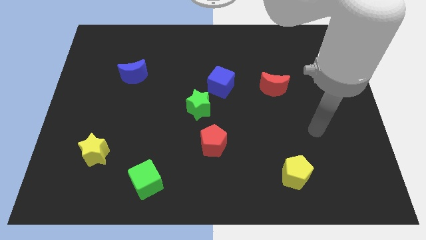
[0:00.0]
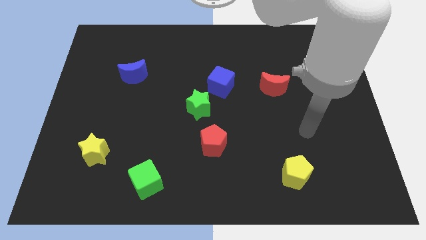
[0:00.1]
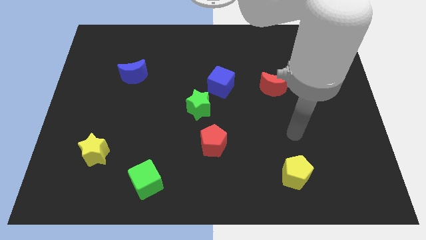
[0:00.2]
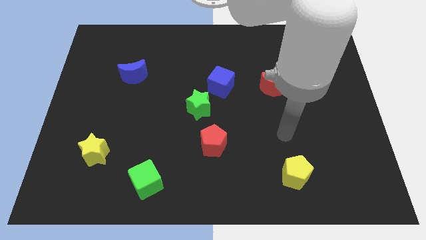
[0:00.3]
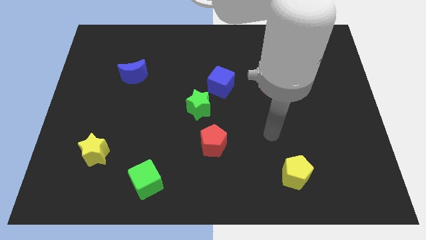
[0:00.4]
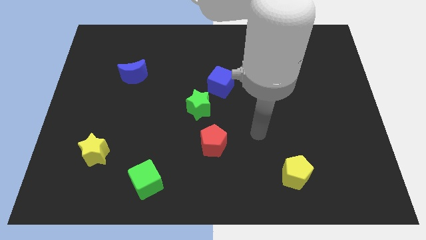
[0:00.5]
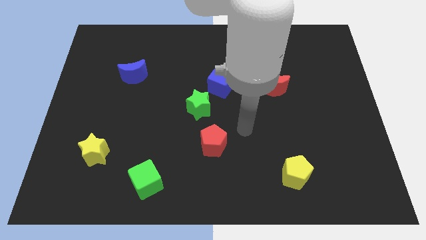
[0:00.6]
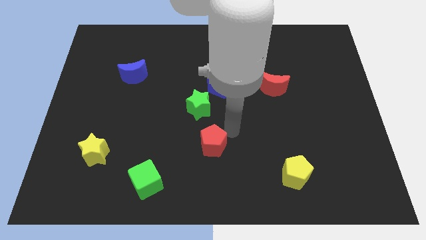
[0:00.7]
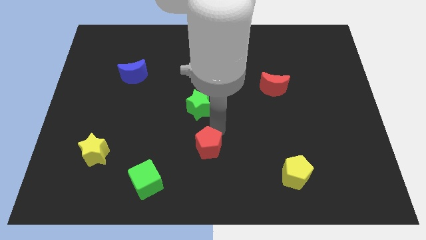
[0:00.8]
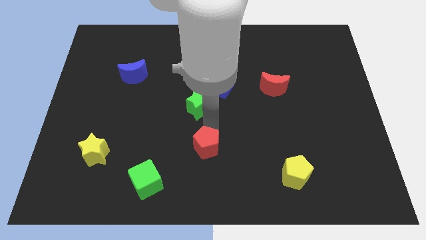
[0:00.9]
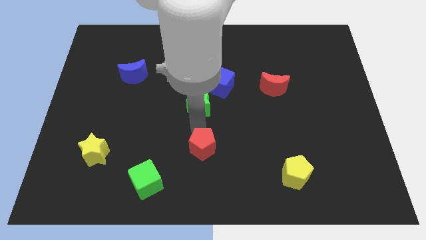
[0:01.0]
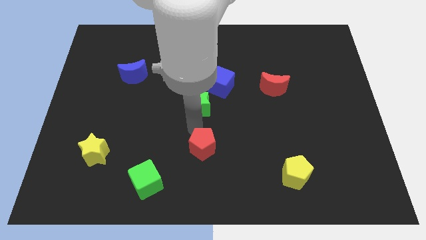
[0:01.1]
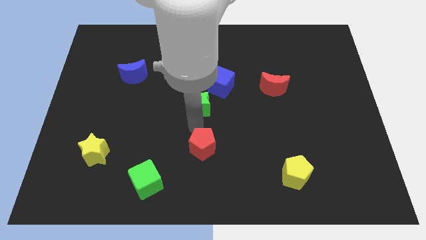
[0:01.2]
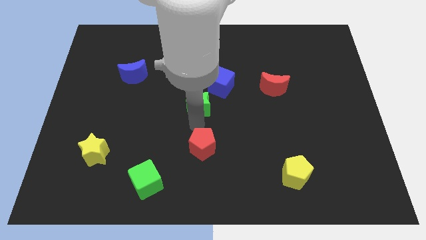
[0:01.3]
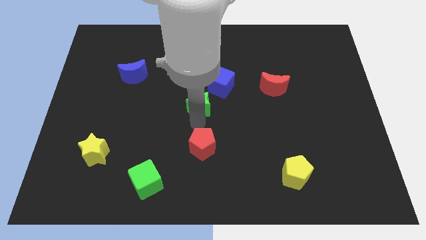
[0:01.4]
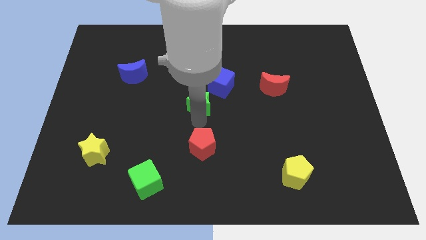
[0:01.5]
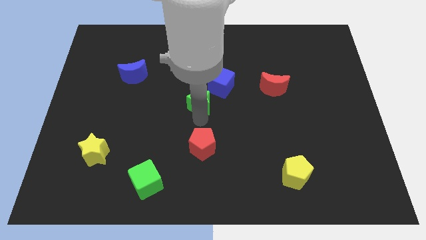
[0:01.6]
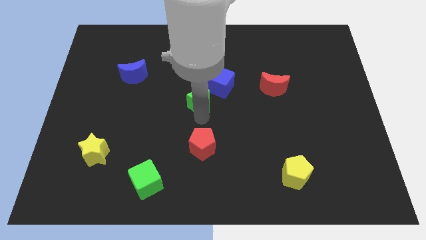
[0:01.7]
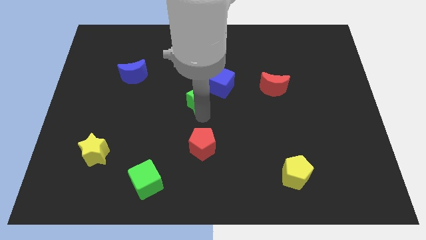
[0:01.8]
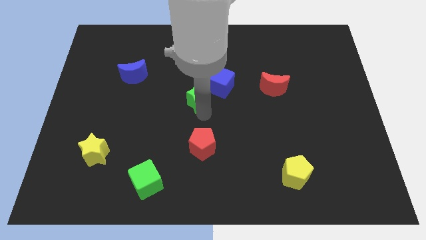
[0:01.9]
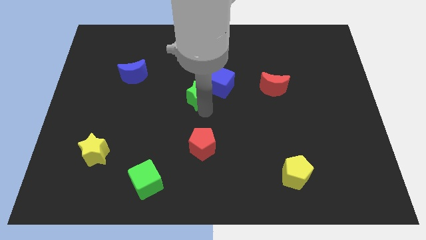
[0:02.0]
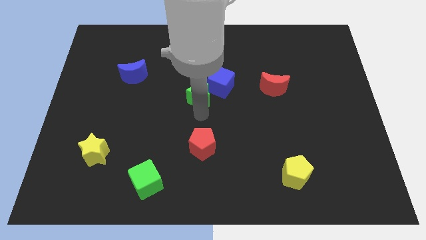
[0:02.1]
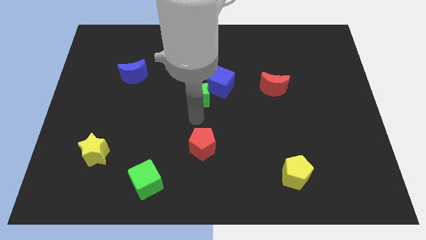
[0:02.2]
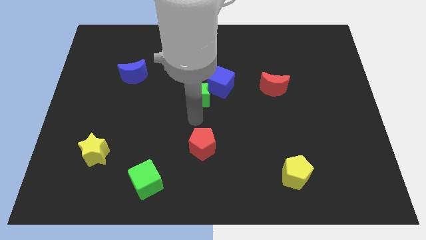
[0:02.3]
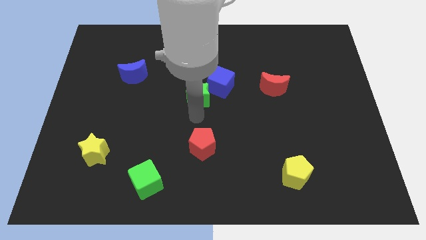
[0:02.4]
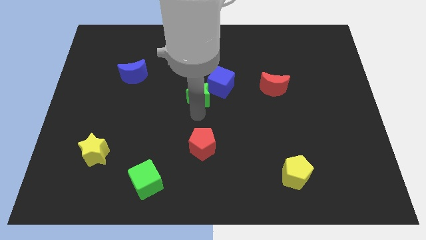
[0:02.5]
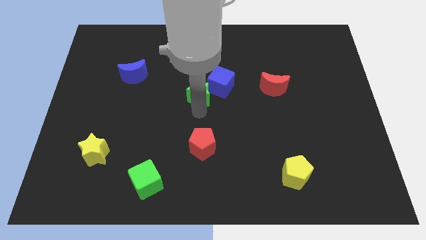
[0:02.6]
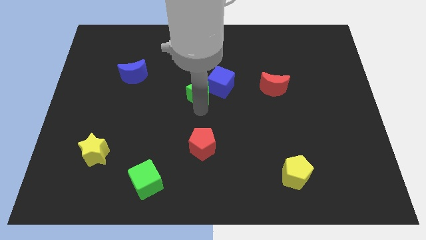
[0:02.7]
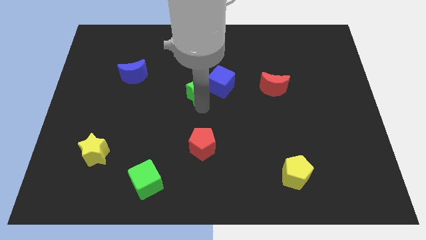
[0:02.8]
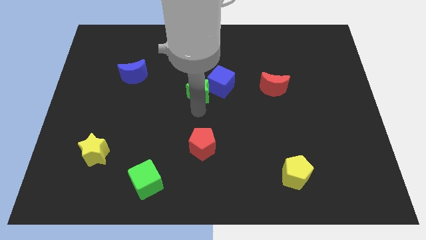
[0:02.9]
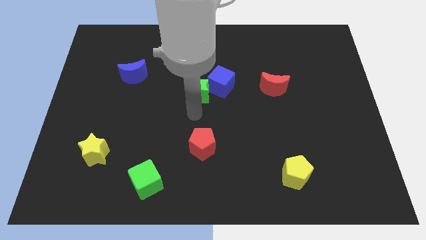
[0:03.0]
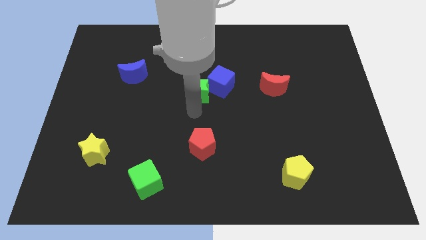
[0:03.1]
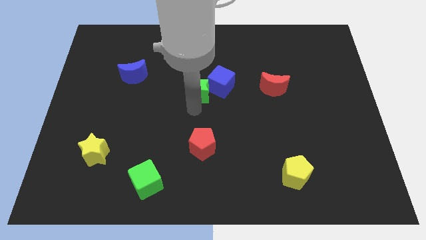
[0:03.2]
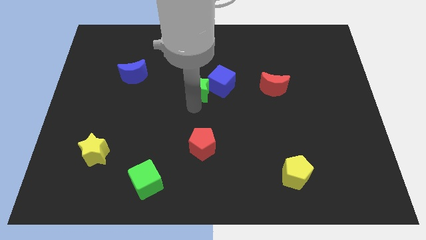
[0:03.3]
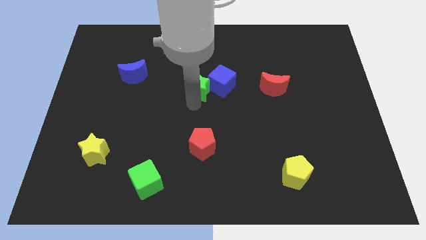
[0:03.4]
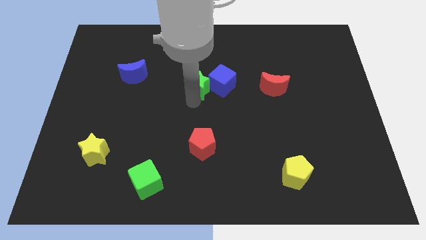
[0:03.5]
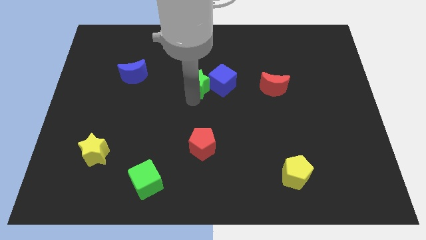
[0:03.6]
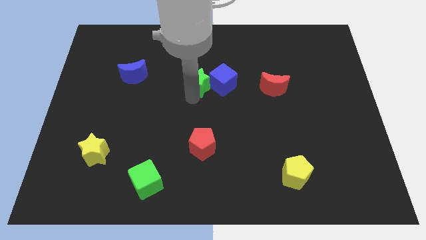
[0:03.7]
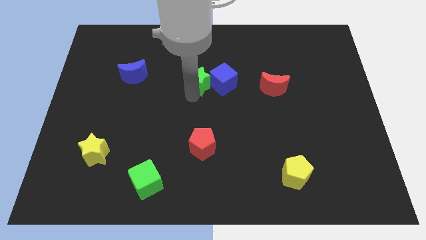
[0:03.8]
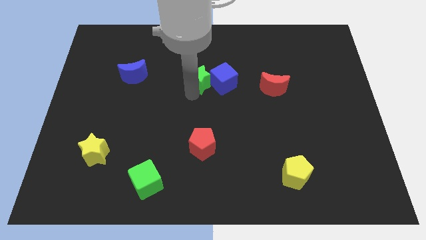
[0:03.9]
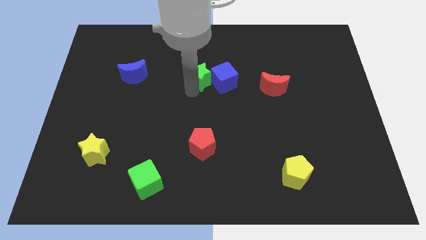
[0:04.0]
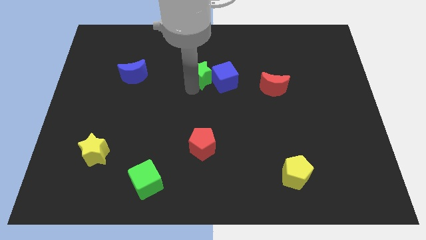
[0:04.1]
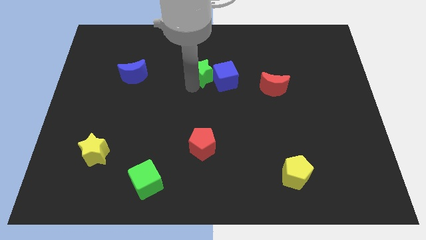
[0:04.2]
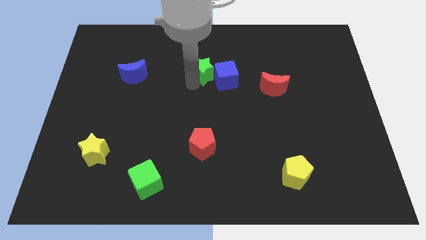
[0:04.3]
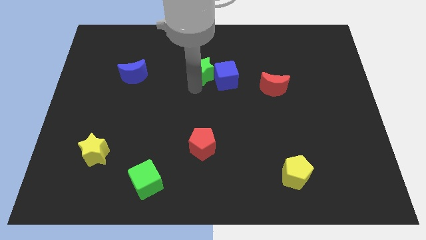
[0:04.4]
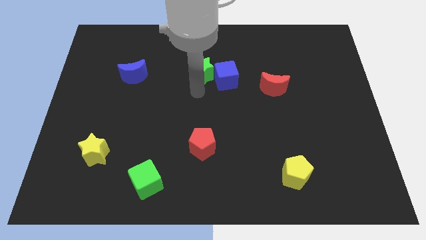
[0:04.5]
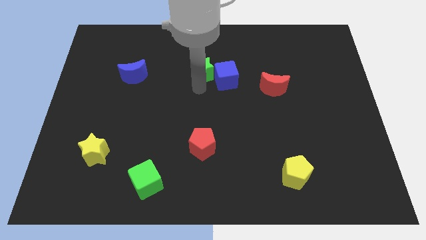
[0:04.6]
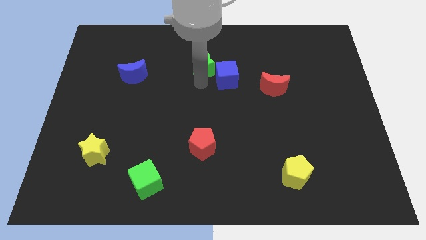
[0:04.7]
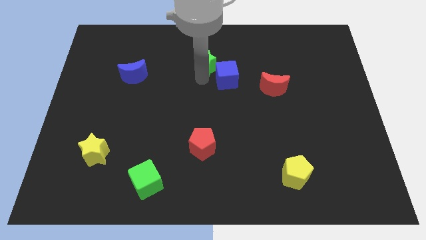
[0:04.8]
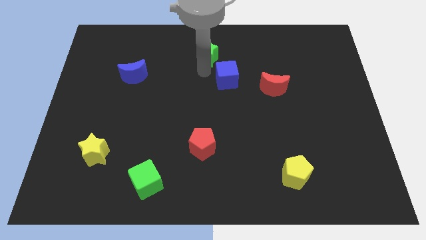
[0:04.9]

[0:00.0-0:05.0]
move the green star to the top

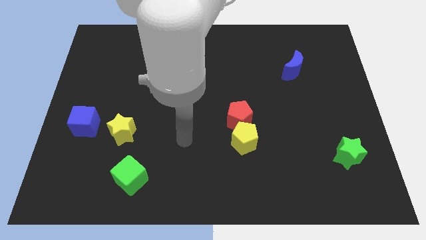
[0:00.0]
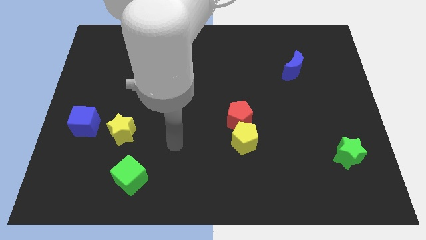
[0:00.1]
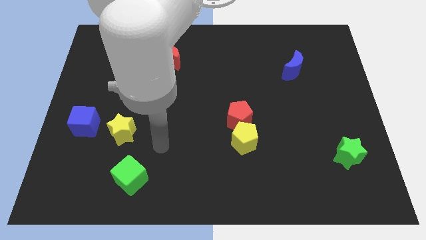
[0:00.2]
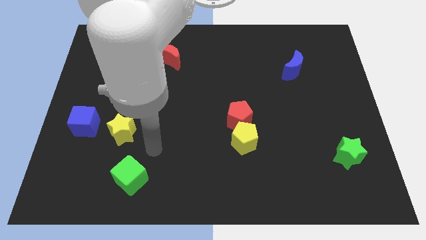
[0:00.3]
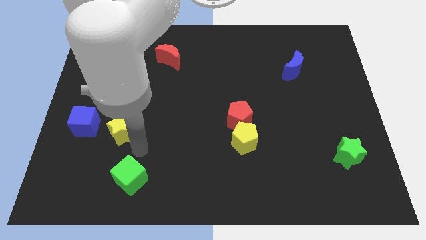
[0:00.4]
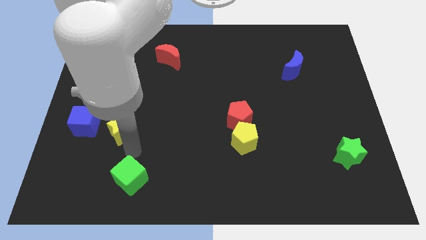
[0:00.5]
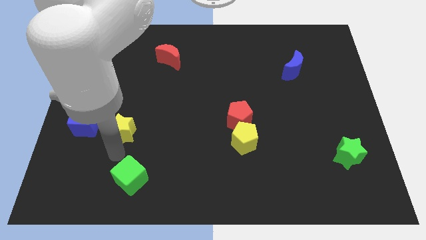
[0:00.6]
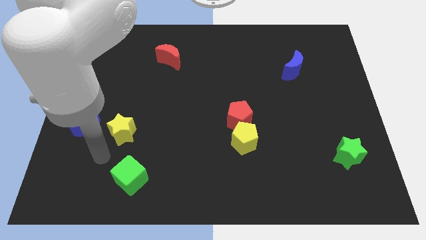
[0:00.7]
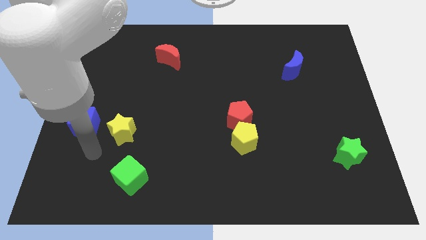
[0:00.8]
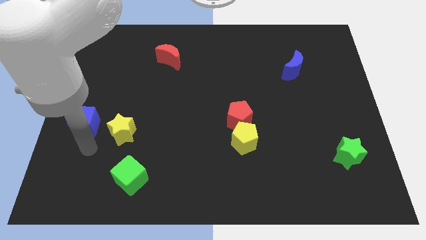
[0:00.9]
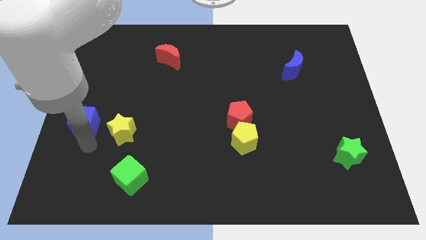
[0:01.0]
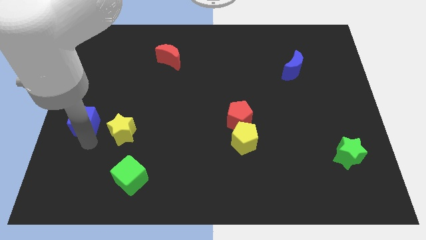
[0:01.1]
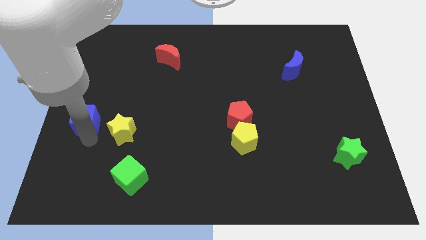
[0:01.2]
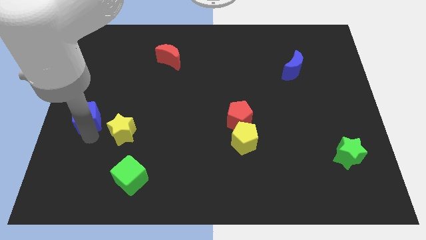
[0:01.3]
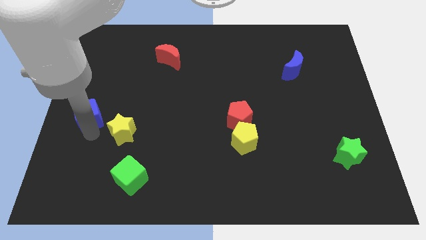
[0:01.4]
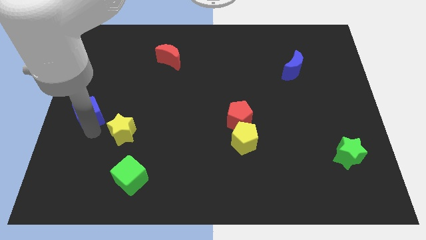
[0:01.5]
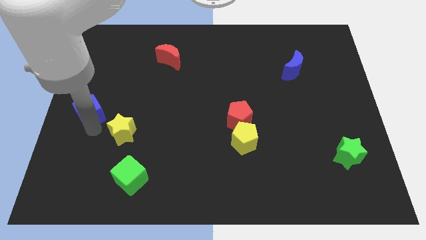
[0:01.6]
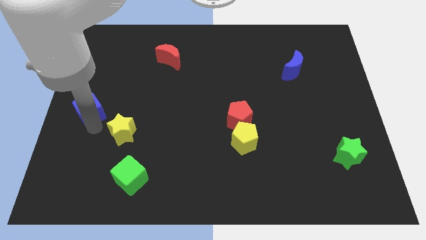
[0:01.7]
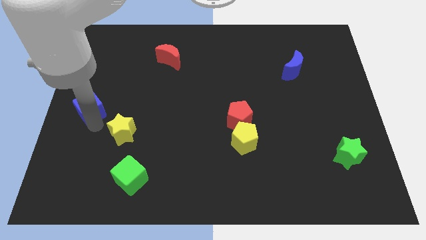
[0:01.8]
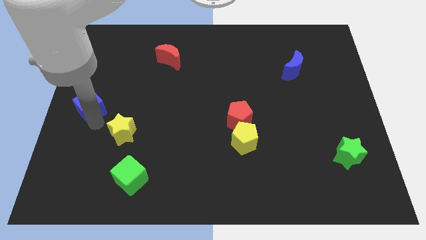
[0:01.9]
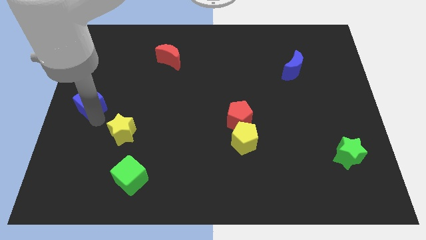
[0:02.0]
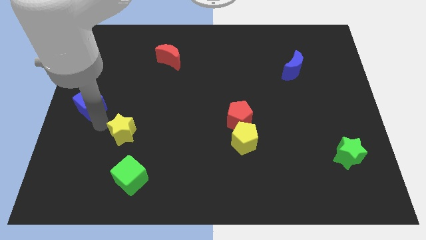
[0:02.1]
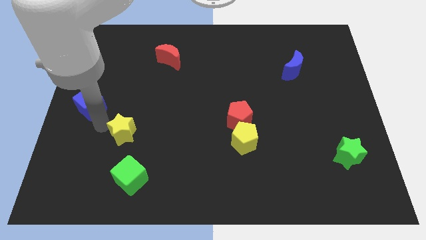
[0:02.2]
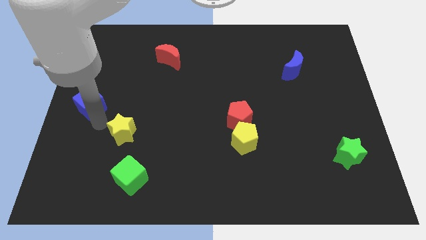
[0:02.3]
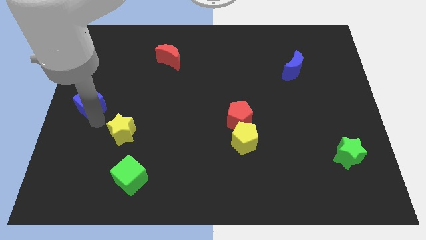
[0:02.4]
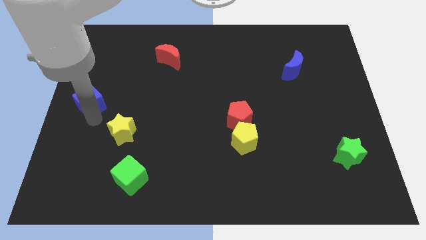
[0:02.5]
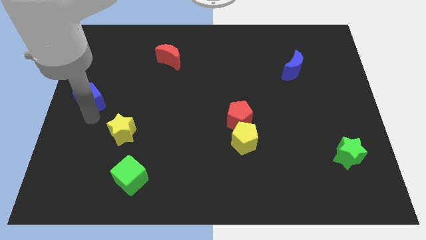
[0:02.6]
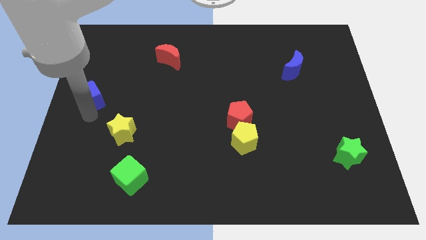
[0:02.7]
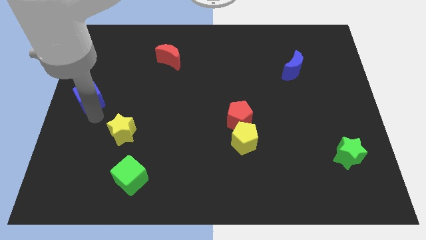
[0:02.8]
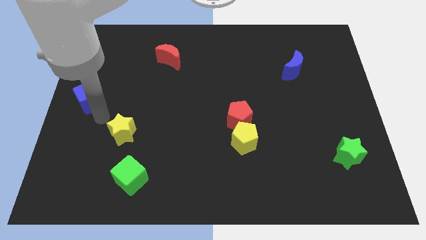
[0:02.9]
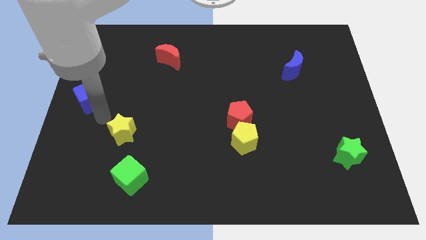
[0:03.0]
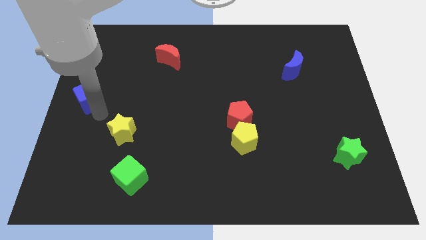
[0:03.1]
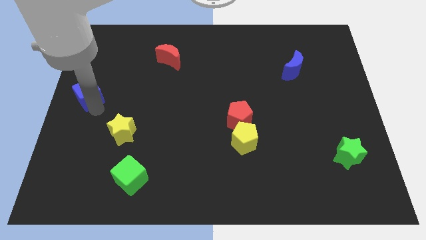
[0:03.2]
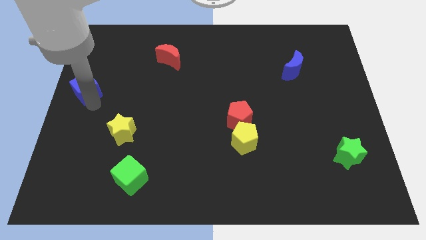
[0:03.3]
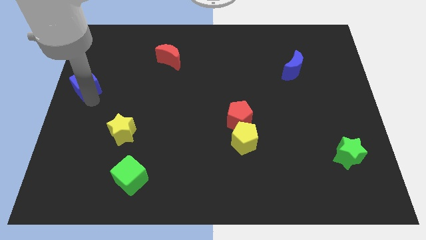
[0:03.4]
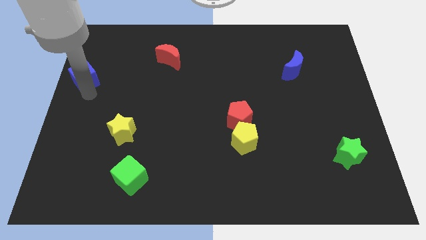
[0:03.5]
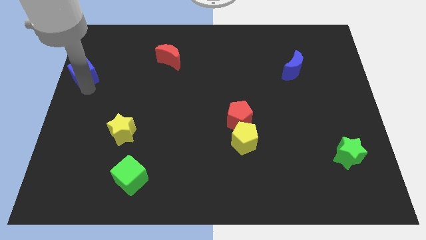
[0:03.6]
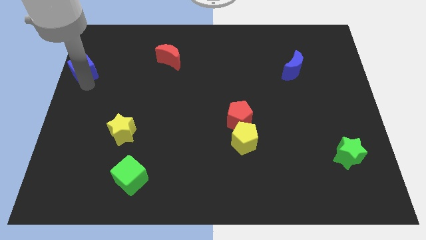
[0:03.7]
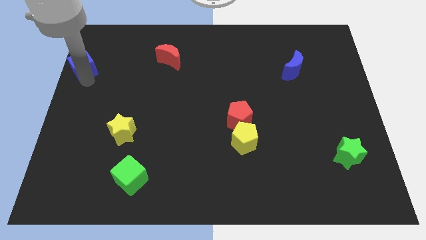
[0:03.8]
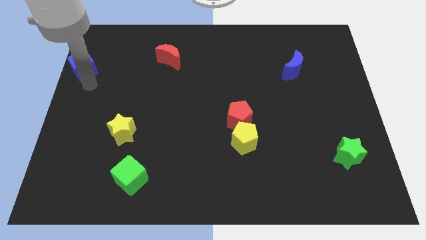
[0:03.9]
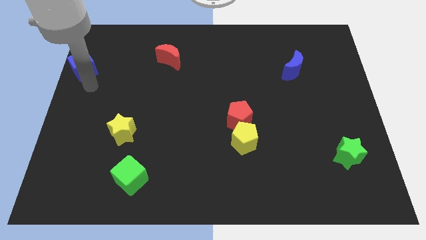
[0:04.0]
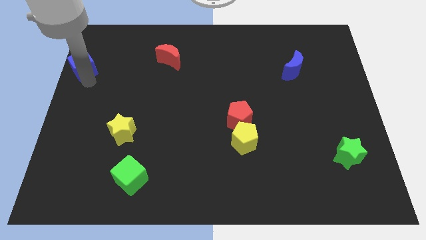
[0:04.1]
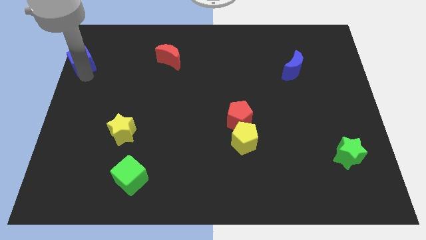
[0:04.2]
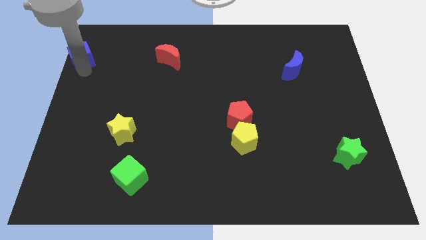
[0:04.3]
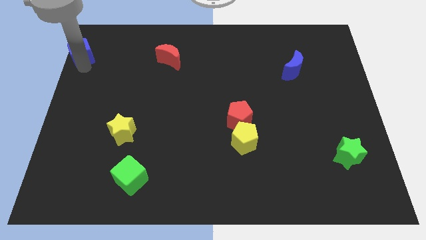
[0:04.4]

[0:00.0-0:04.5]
slide the blue cube to the top left corner
